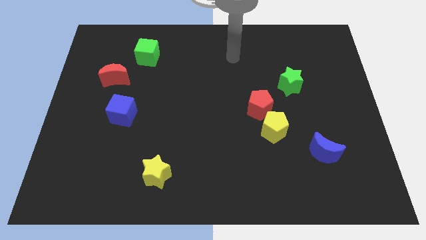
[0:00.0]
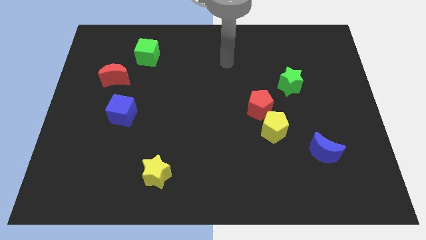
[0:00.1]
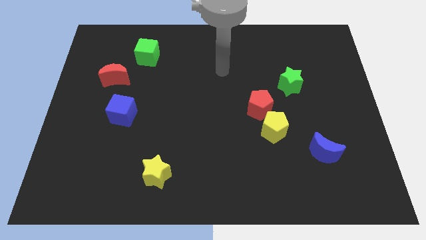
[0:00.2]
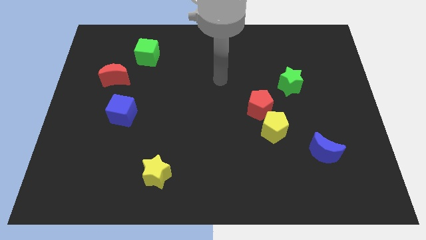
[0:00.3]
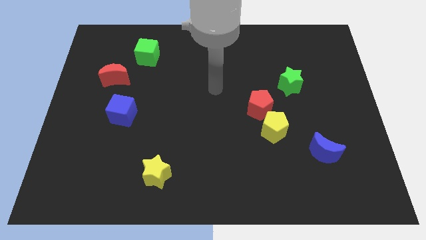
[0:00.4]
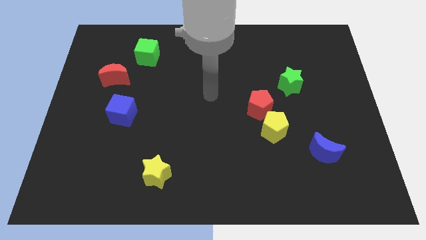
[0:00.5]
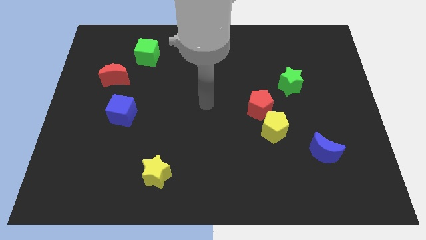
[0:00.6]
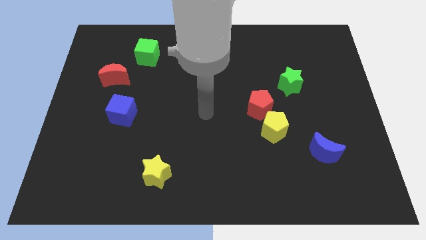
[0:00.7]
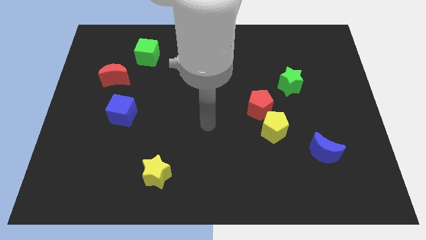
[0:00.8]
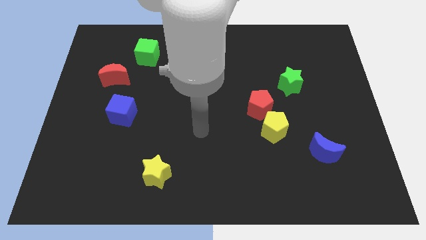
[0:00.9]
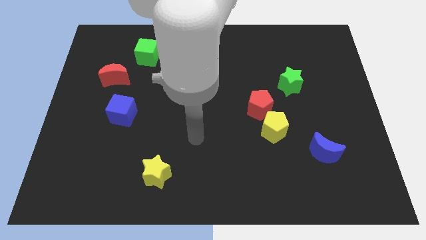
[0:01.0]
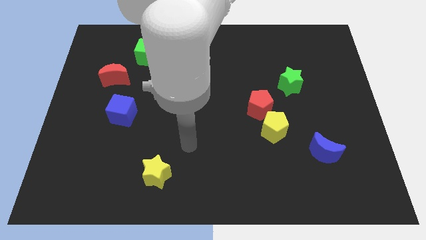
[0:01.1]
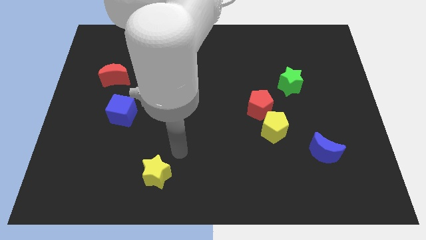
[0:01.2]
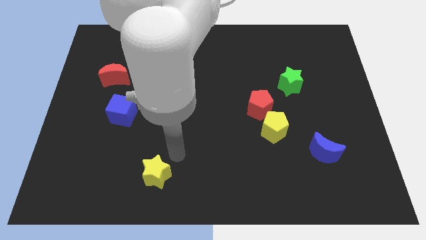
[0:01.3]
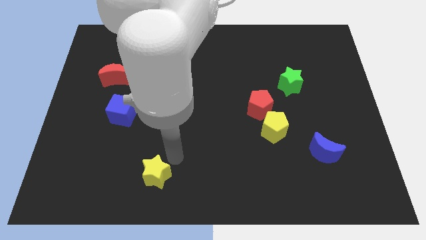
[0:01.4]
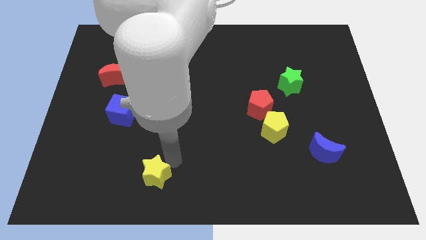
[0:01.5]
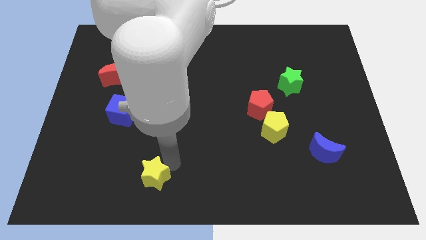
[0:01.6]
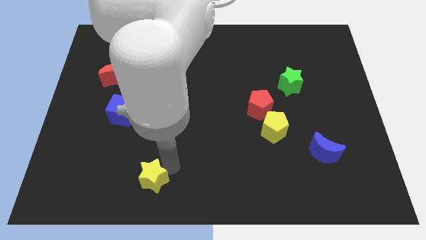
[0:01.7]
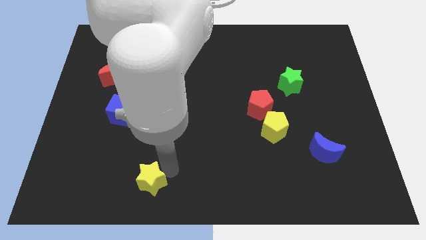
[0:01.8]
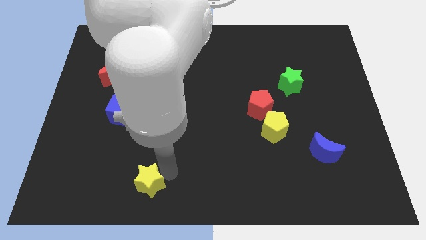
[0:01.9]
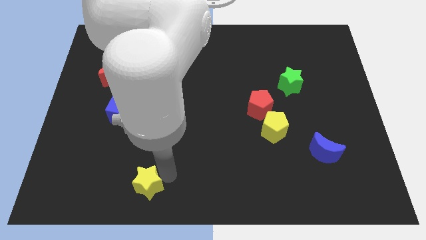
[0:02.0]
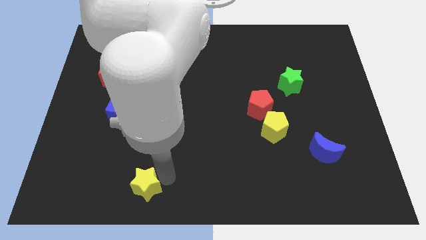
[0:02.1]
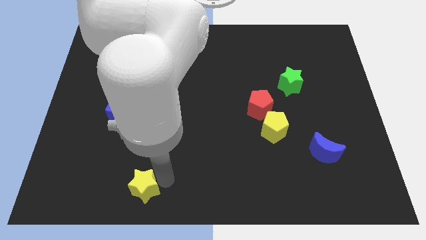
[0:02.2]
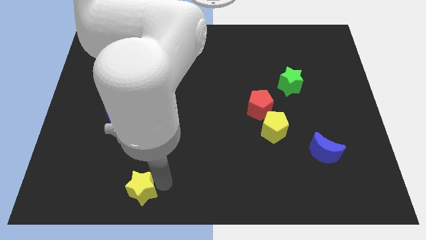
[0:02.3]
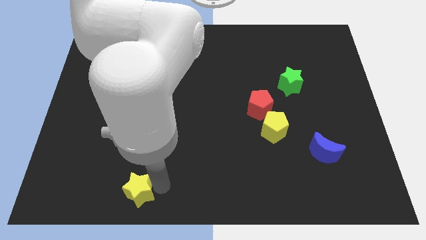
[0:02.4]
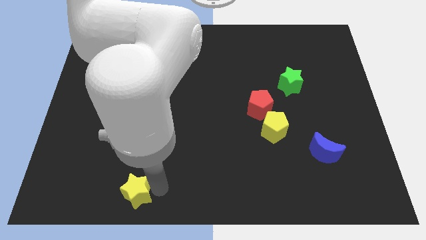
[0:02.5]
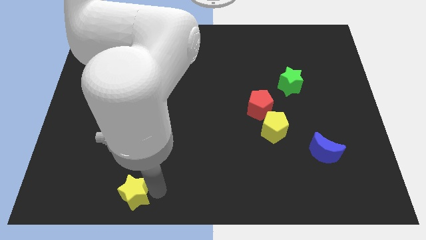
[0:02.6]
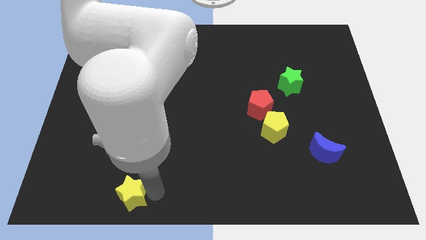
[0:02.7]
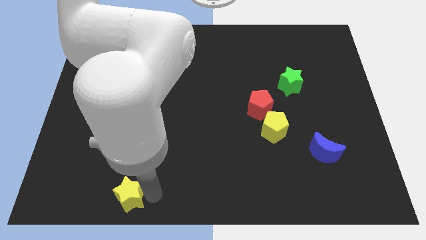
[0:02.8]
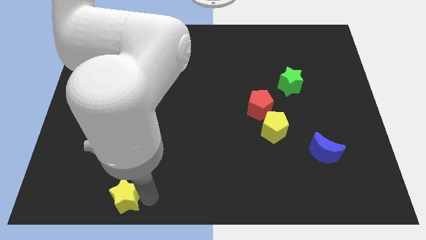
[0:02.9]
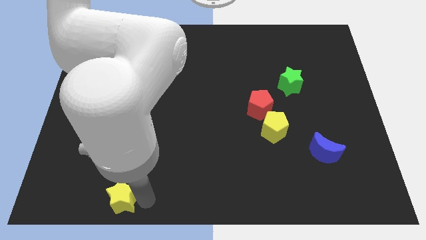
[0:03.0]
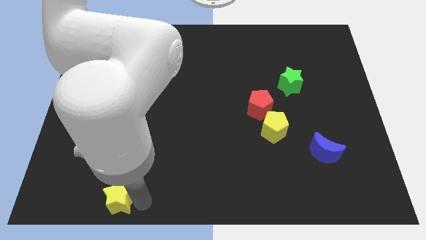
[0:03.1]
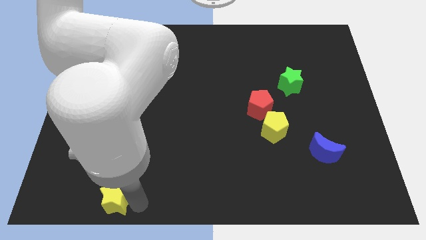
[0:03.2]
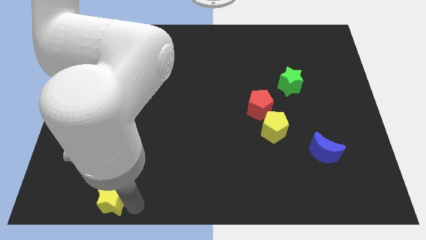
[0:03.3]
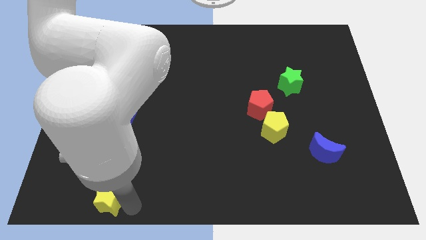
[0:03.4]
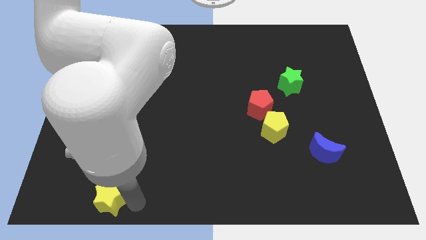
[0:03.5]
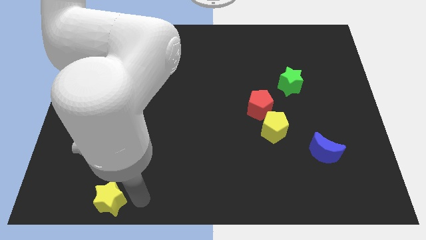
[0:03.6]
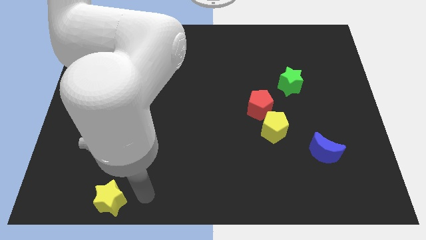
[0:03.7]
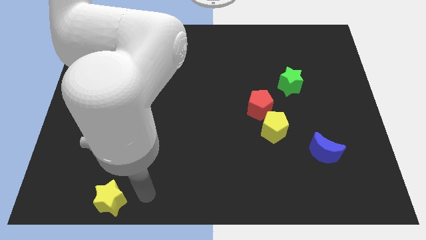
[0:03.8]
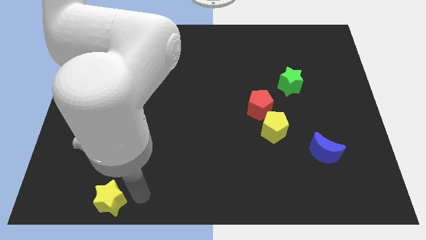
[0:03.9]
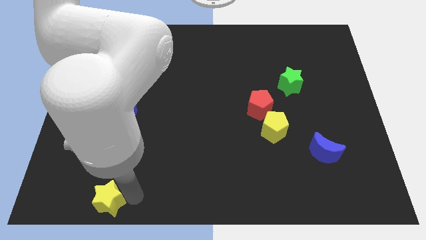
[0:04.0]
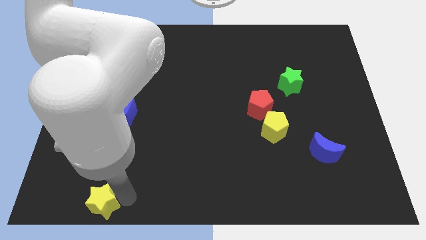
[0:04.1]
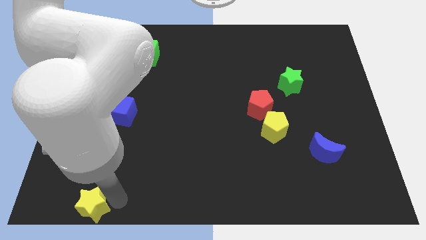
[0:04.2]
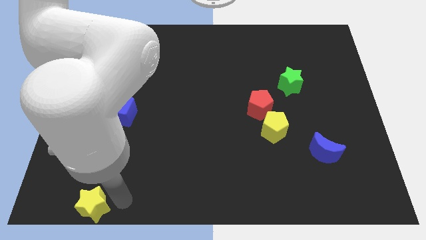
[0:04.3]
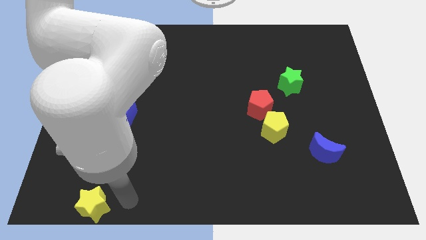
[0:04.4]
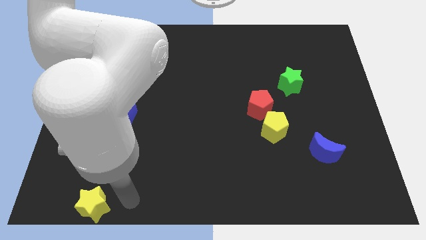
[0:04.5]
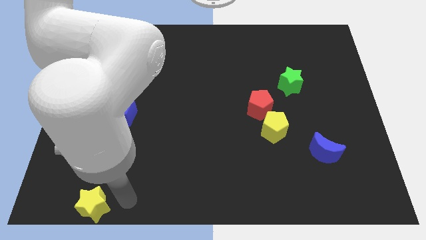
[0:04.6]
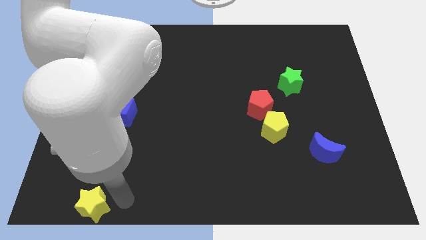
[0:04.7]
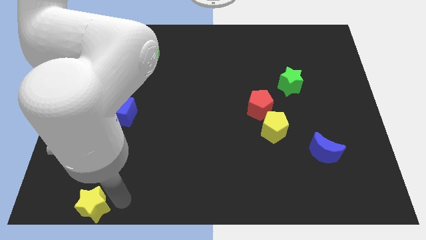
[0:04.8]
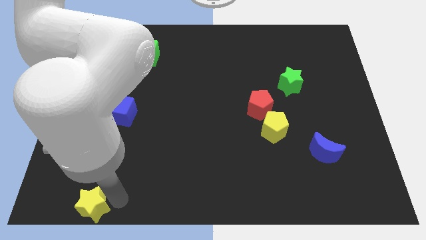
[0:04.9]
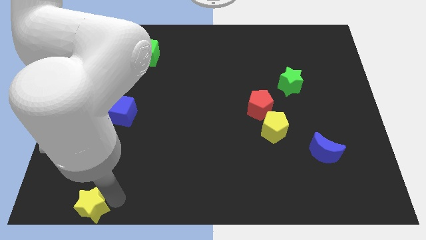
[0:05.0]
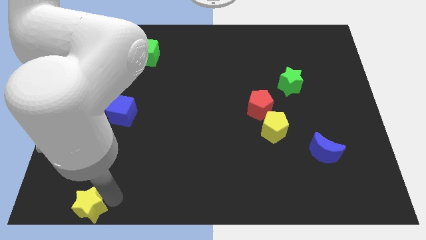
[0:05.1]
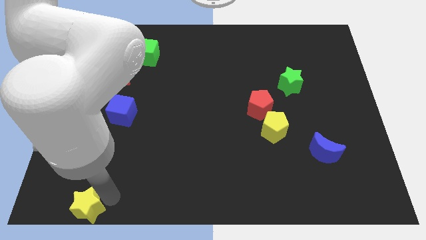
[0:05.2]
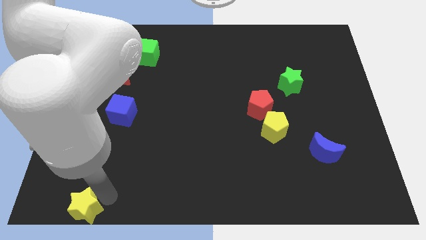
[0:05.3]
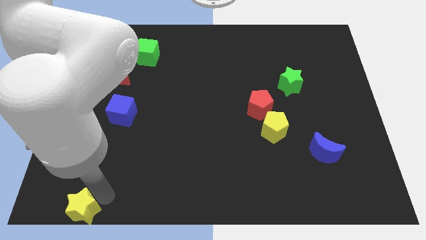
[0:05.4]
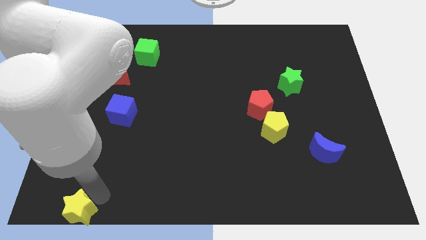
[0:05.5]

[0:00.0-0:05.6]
put the yellow star to the lower left corner

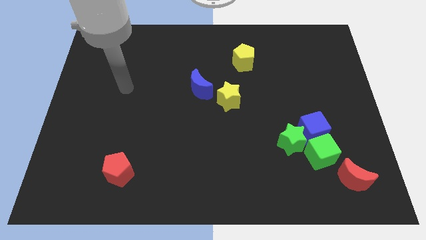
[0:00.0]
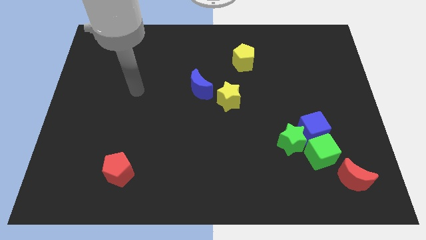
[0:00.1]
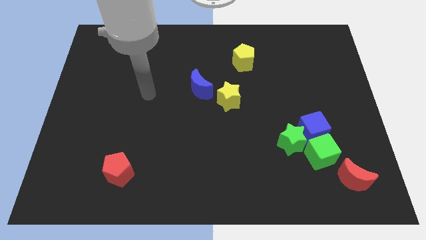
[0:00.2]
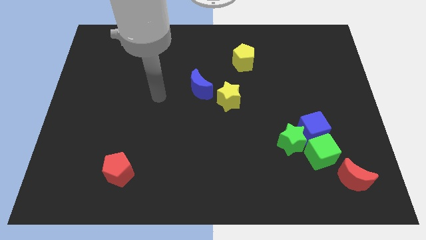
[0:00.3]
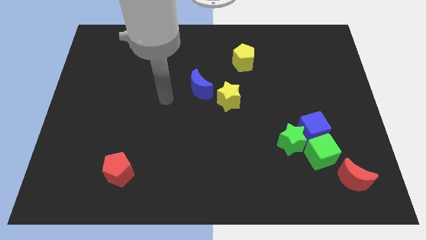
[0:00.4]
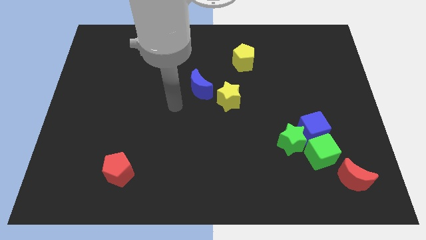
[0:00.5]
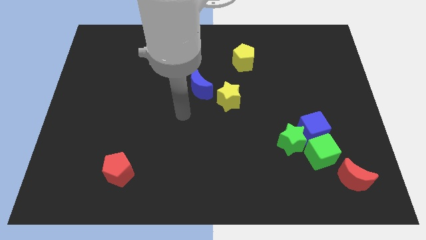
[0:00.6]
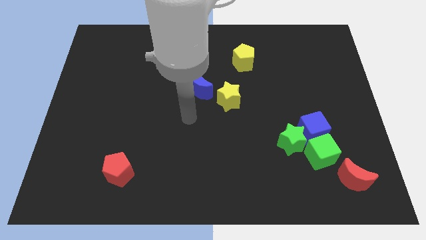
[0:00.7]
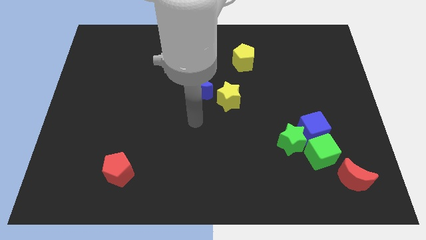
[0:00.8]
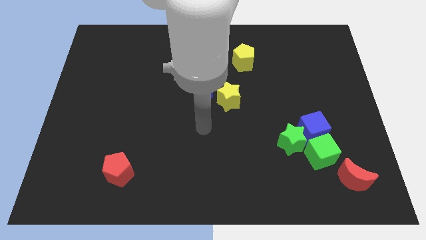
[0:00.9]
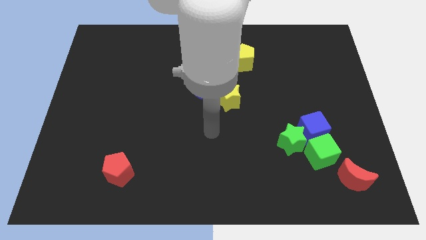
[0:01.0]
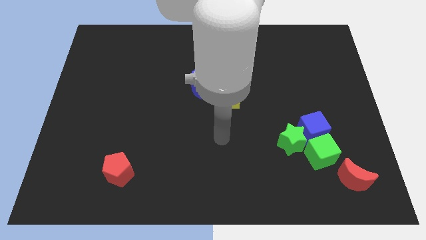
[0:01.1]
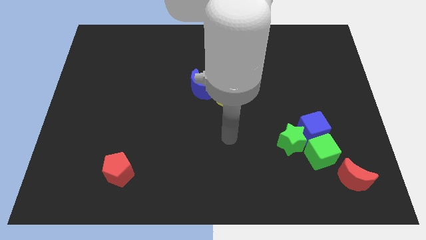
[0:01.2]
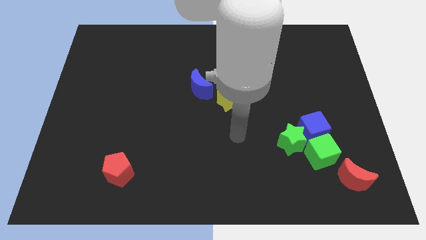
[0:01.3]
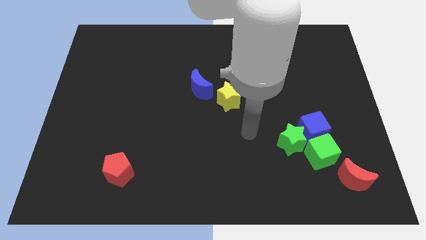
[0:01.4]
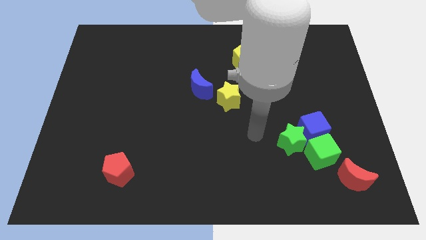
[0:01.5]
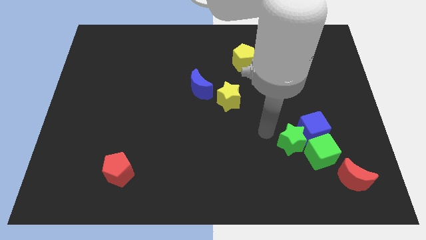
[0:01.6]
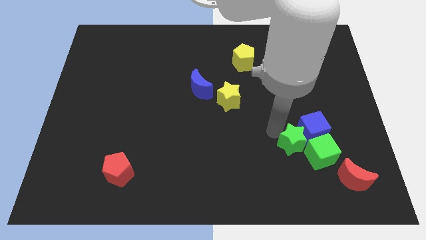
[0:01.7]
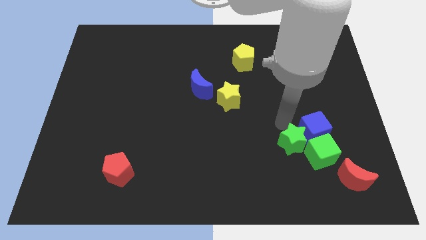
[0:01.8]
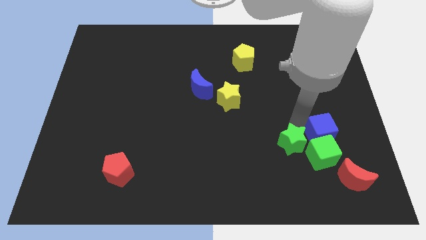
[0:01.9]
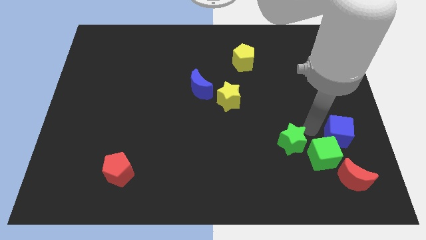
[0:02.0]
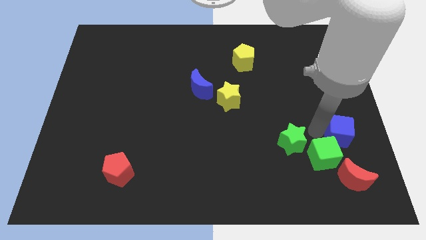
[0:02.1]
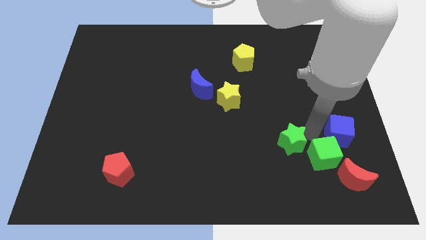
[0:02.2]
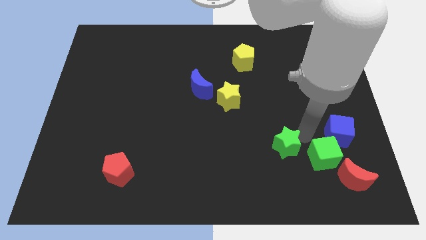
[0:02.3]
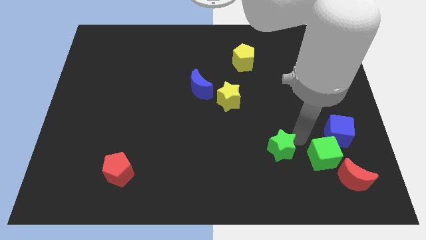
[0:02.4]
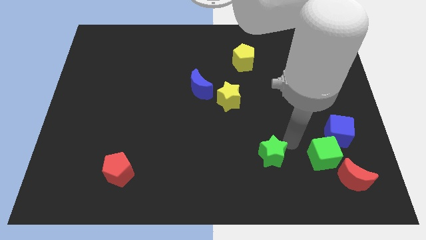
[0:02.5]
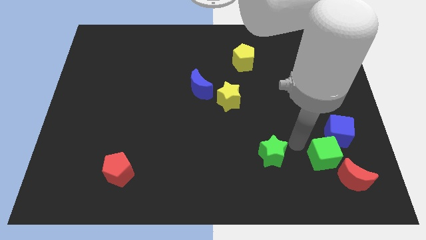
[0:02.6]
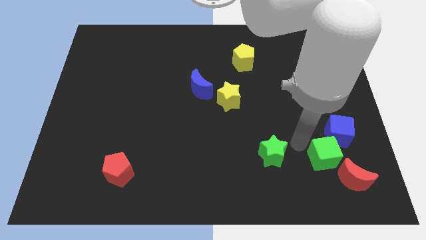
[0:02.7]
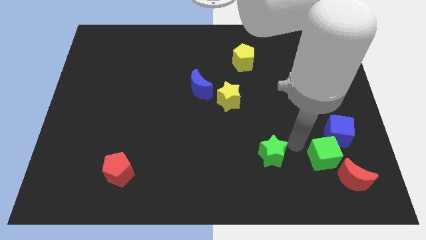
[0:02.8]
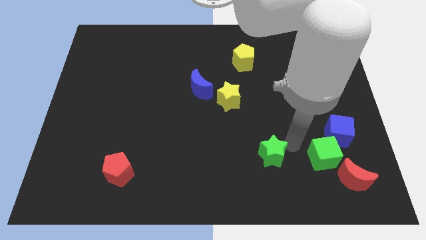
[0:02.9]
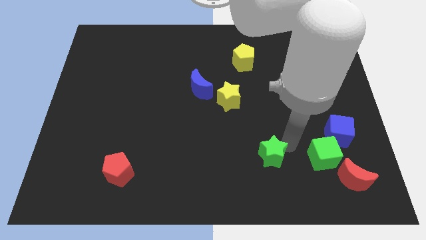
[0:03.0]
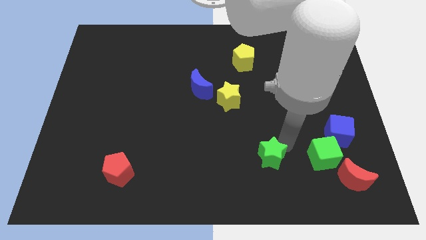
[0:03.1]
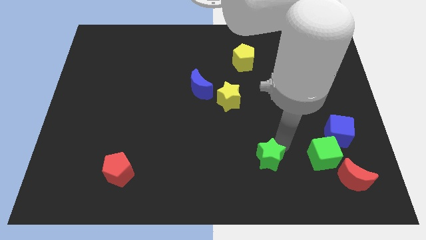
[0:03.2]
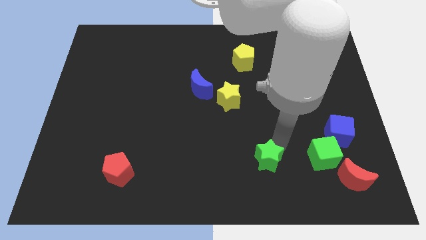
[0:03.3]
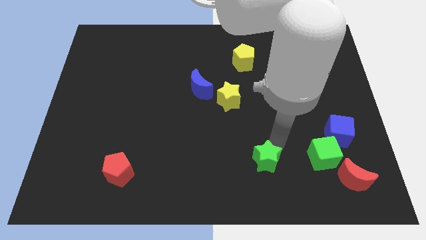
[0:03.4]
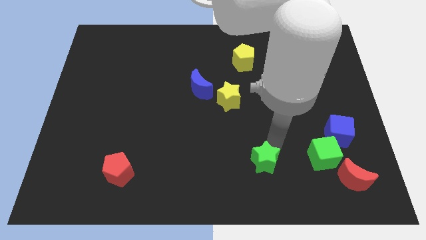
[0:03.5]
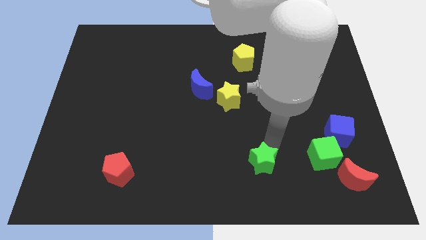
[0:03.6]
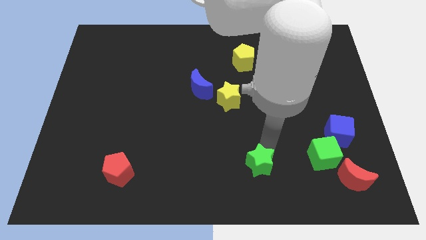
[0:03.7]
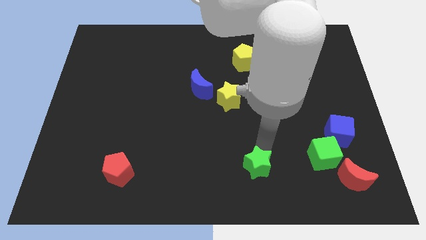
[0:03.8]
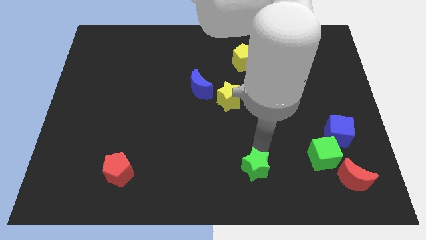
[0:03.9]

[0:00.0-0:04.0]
slide the green star to the bottom
